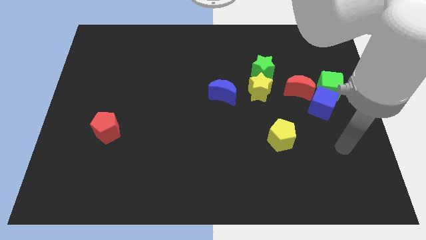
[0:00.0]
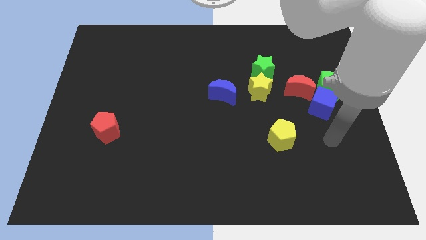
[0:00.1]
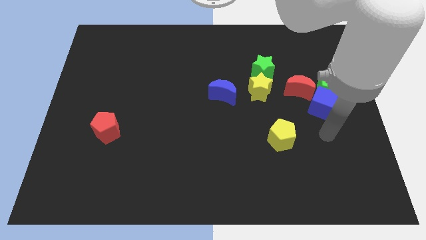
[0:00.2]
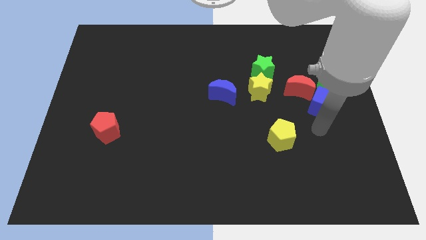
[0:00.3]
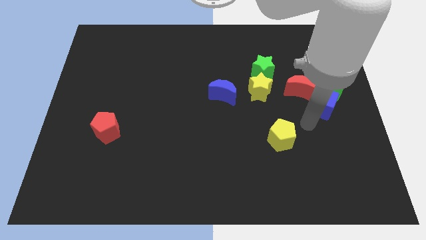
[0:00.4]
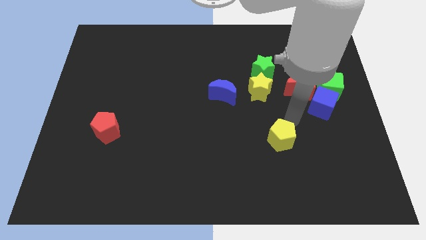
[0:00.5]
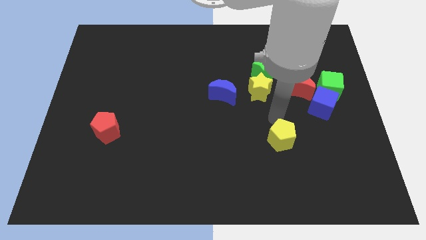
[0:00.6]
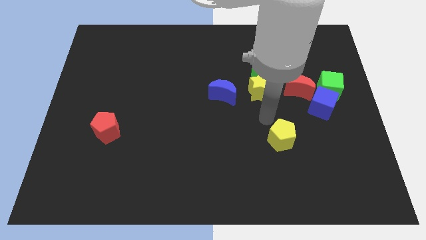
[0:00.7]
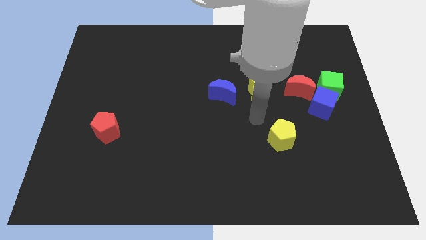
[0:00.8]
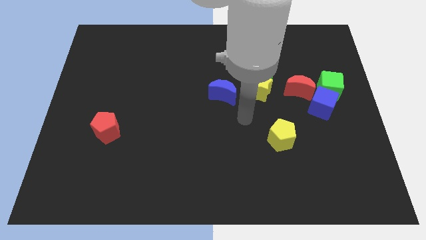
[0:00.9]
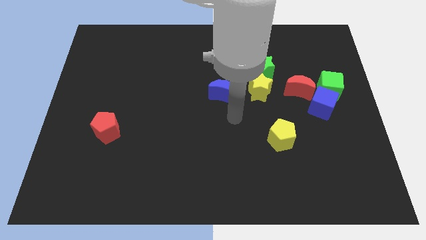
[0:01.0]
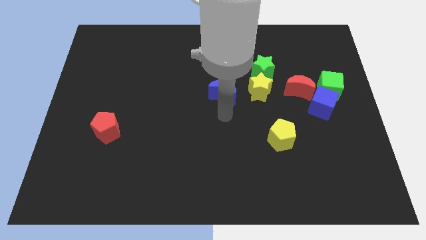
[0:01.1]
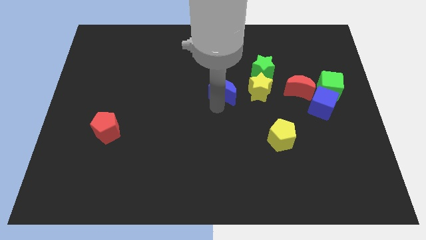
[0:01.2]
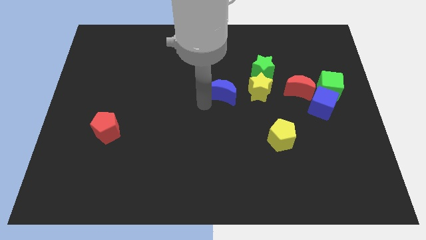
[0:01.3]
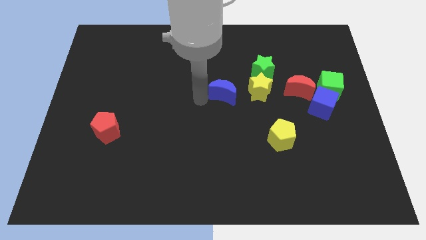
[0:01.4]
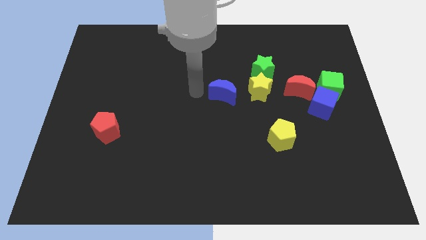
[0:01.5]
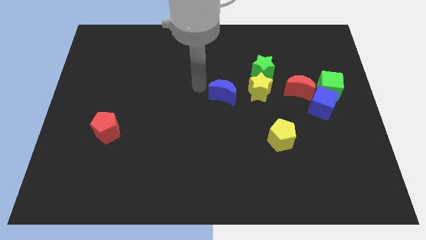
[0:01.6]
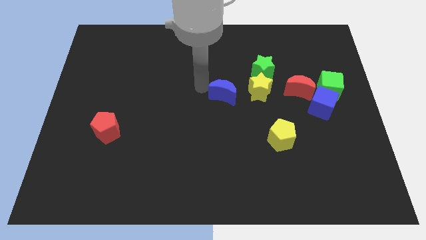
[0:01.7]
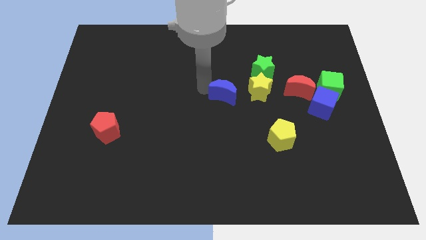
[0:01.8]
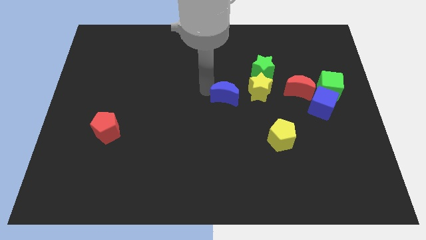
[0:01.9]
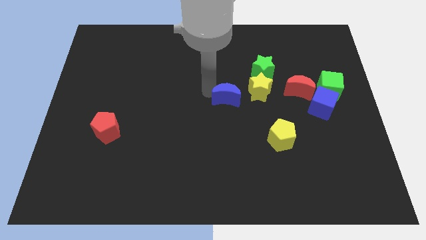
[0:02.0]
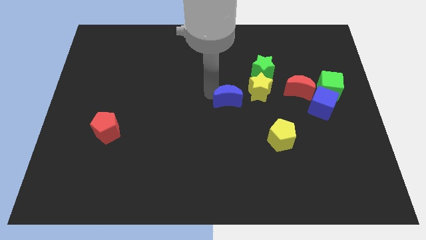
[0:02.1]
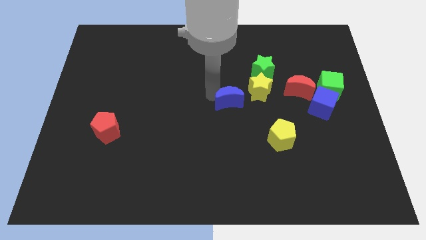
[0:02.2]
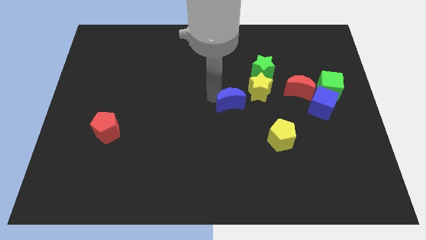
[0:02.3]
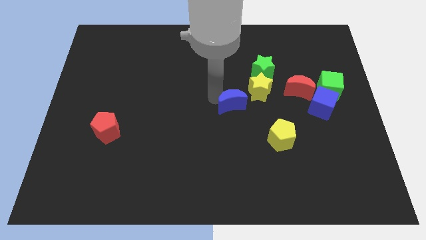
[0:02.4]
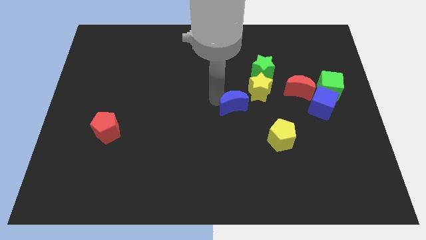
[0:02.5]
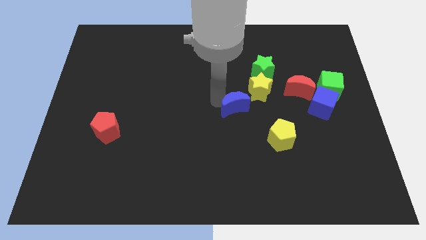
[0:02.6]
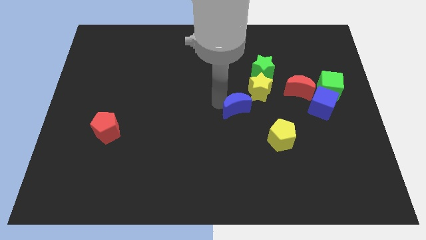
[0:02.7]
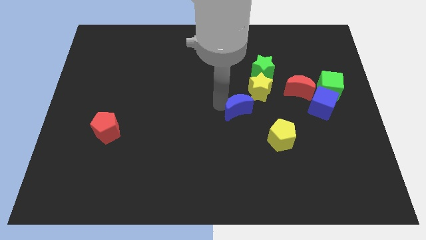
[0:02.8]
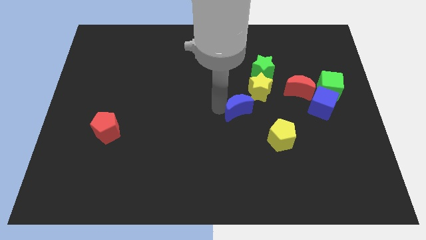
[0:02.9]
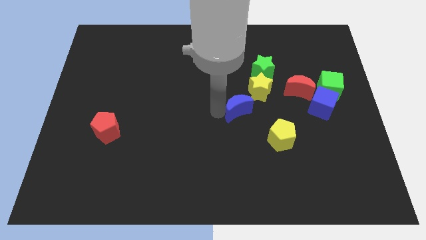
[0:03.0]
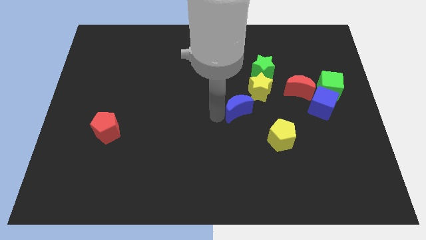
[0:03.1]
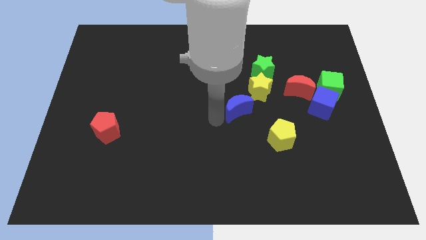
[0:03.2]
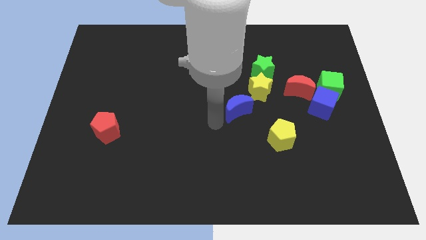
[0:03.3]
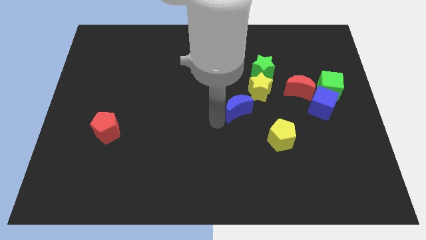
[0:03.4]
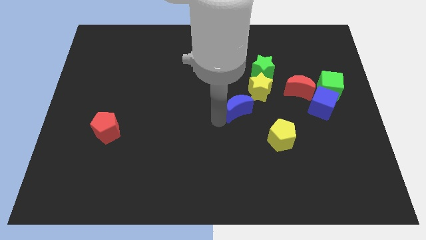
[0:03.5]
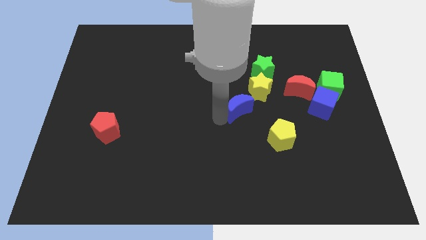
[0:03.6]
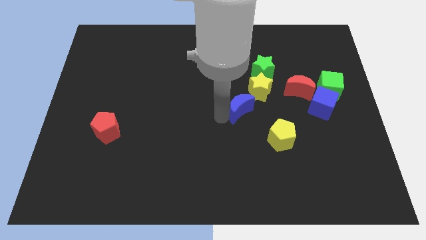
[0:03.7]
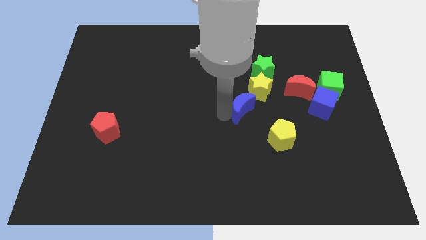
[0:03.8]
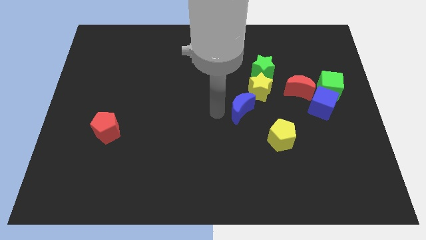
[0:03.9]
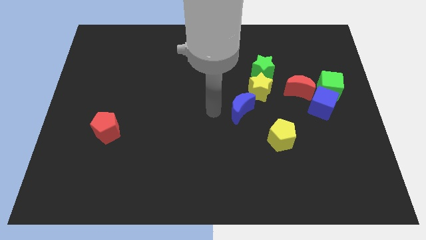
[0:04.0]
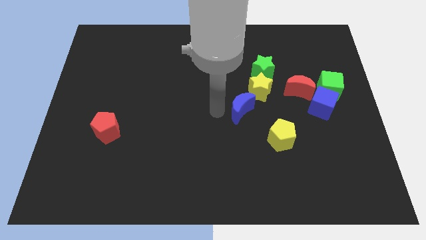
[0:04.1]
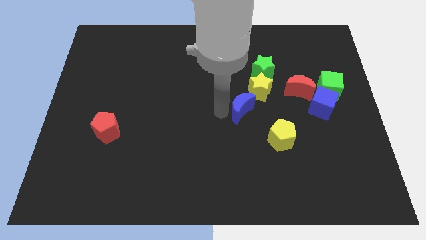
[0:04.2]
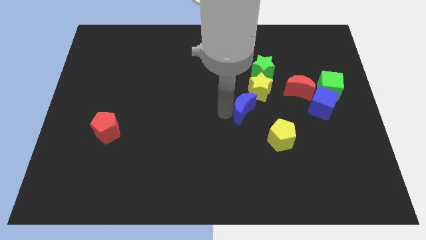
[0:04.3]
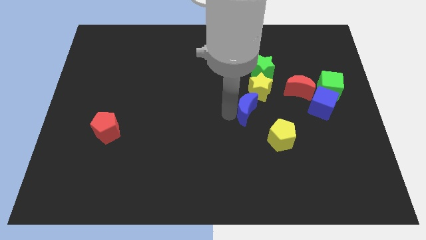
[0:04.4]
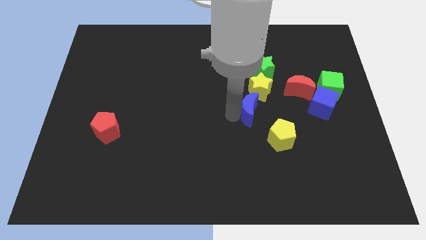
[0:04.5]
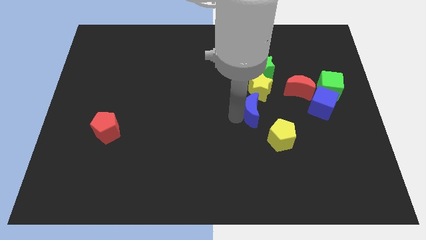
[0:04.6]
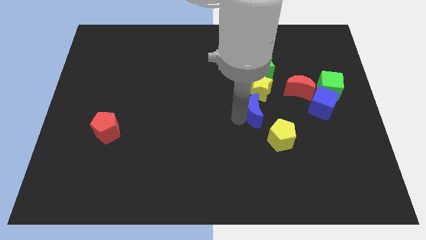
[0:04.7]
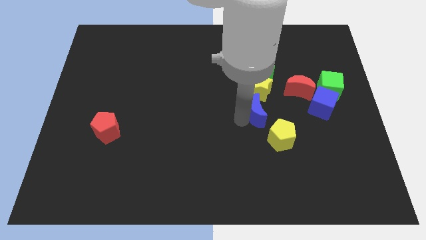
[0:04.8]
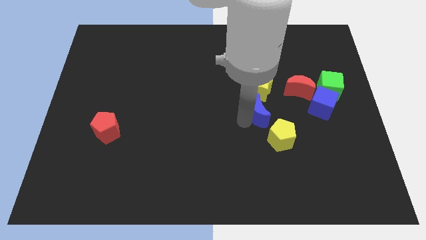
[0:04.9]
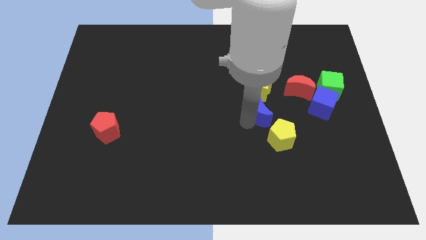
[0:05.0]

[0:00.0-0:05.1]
move the blue moon diagonally down and to the left of the red moon

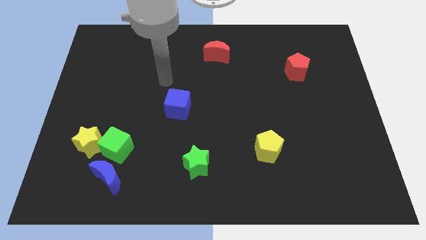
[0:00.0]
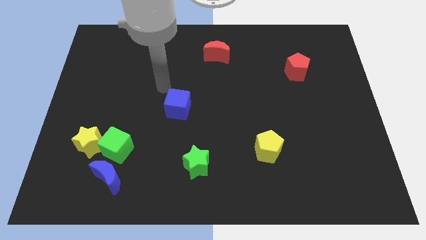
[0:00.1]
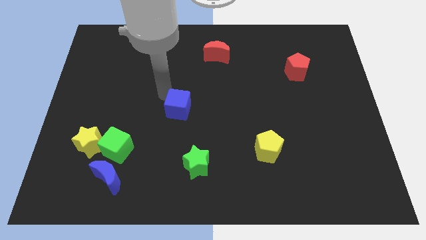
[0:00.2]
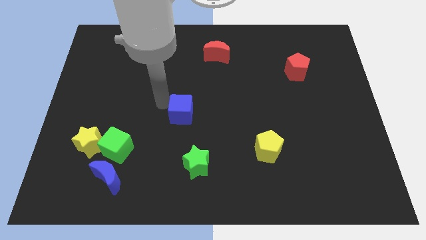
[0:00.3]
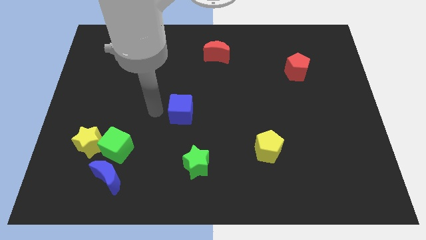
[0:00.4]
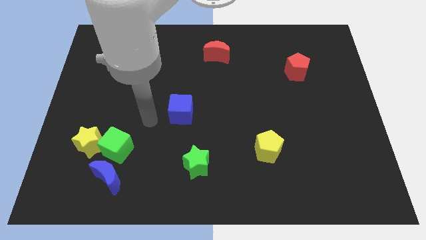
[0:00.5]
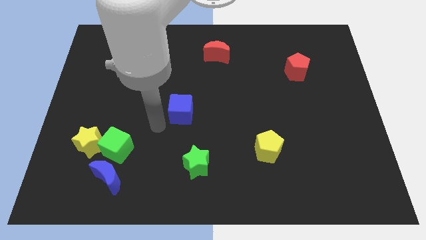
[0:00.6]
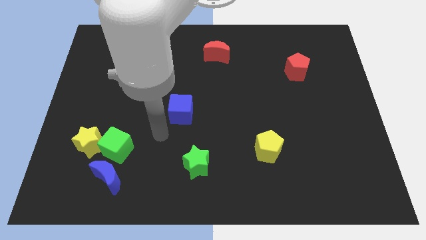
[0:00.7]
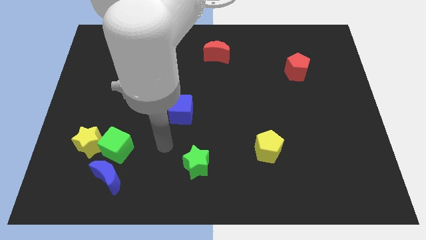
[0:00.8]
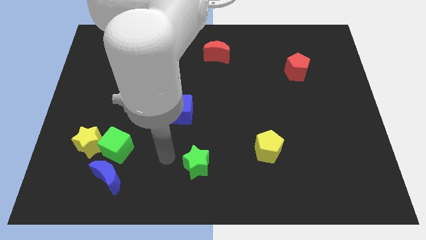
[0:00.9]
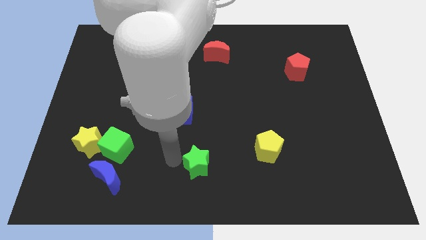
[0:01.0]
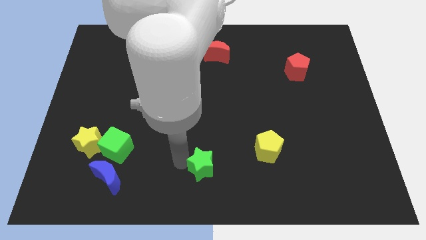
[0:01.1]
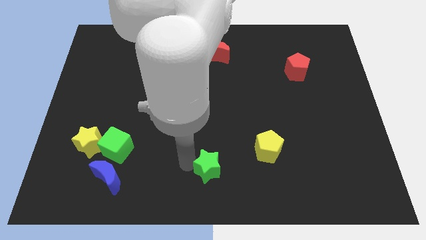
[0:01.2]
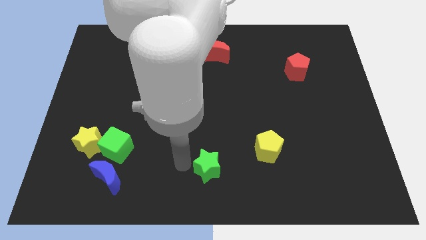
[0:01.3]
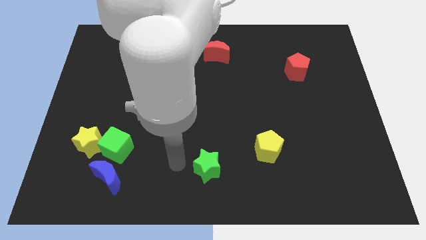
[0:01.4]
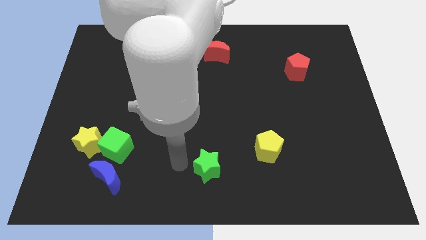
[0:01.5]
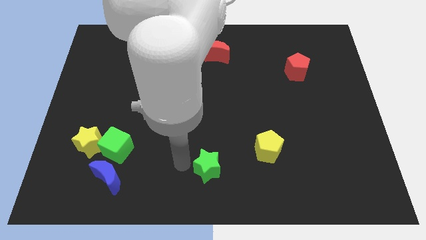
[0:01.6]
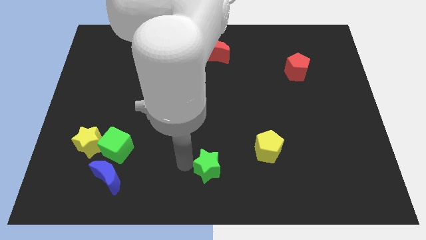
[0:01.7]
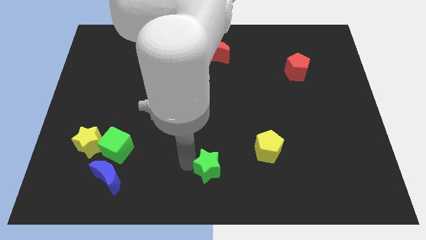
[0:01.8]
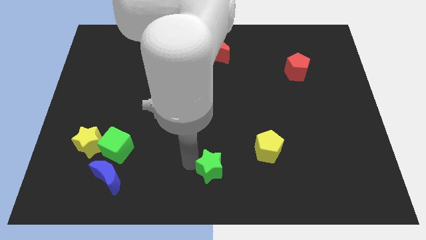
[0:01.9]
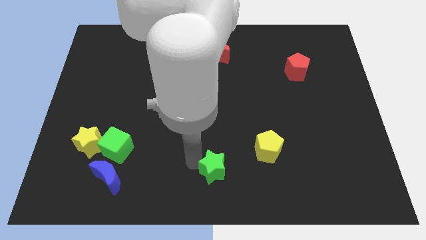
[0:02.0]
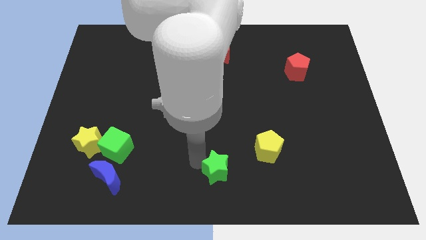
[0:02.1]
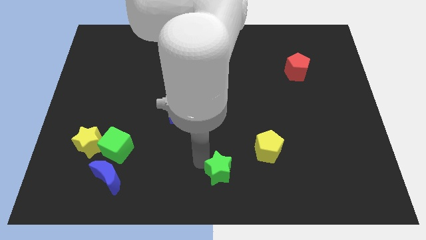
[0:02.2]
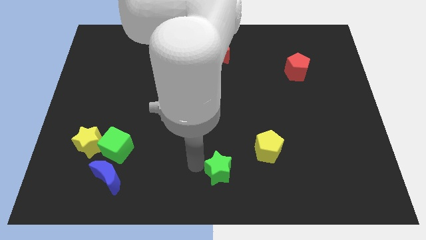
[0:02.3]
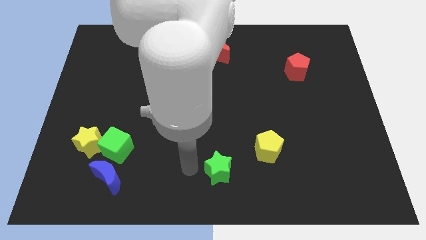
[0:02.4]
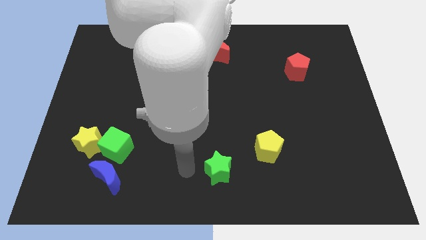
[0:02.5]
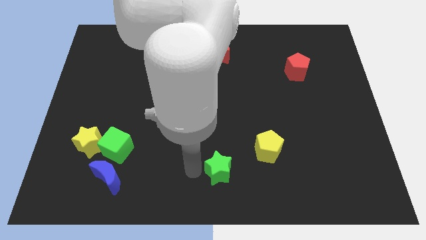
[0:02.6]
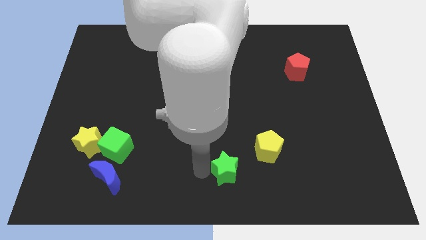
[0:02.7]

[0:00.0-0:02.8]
move the green star to the bottom left of the yellow pentagon
